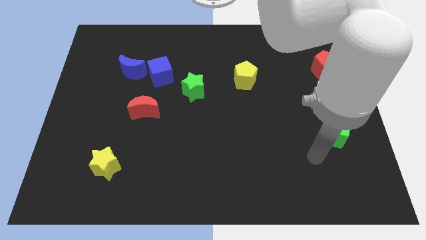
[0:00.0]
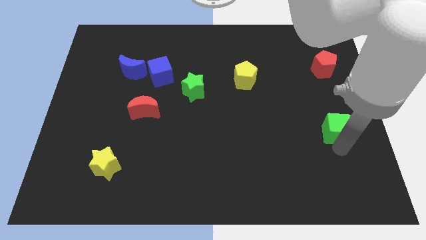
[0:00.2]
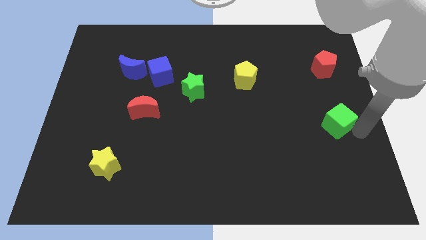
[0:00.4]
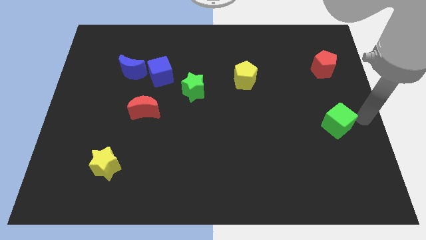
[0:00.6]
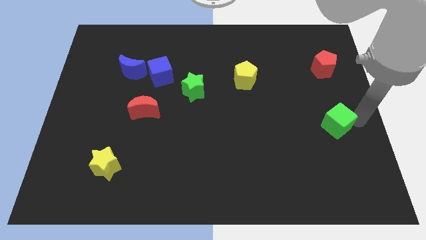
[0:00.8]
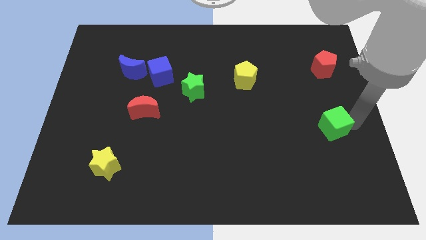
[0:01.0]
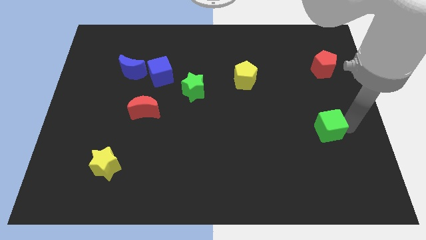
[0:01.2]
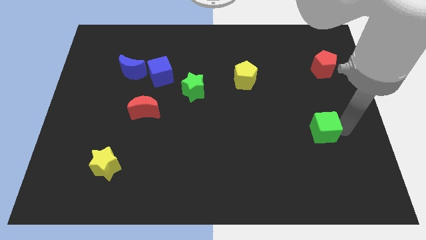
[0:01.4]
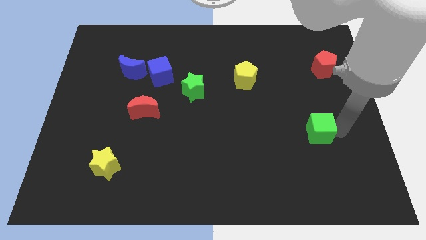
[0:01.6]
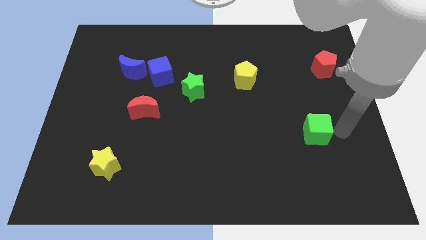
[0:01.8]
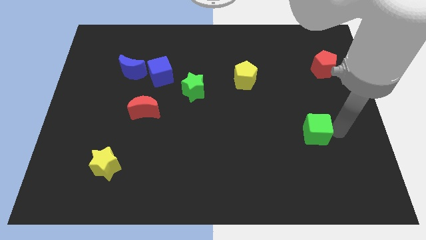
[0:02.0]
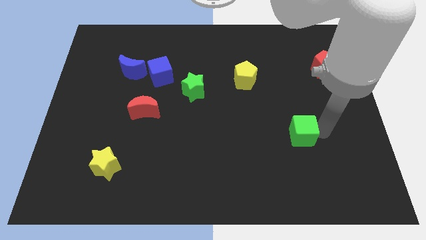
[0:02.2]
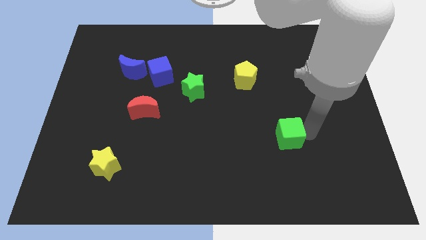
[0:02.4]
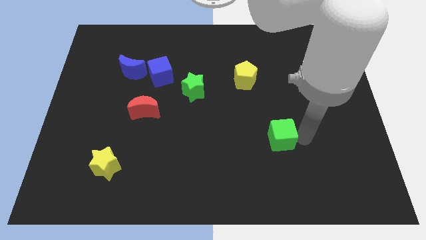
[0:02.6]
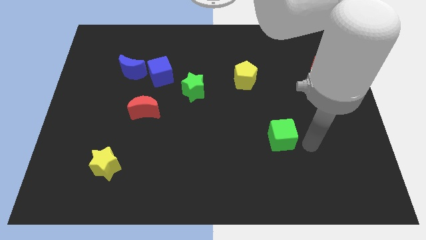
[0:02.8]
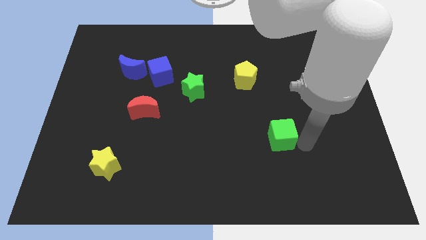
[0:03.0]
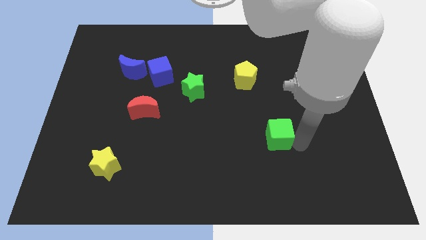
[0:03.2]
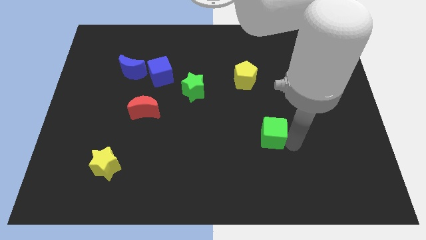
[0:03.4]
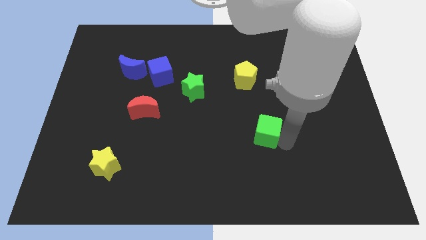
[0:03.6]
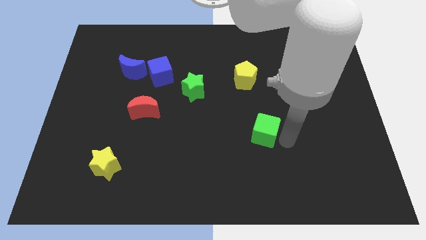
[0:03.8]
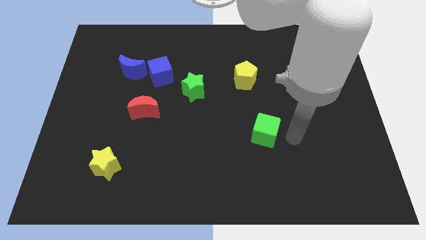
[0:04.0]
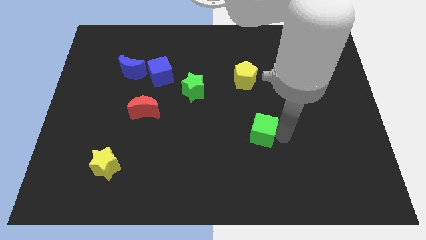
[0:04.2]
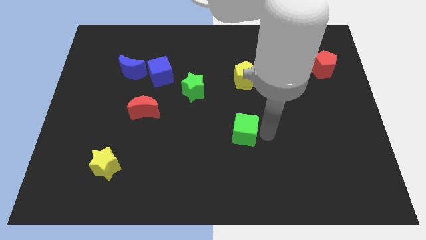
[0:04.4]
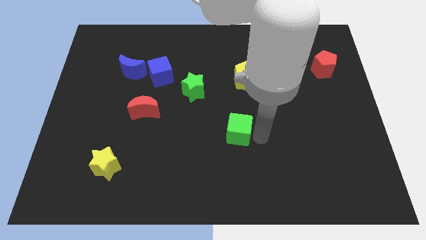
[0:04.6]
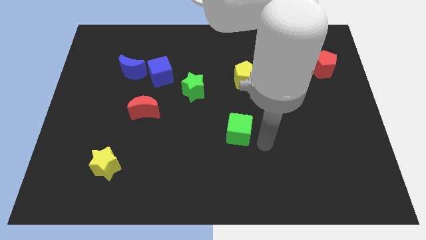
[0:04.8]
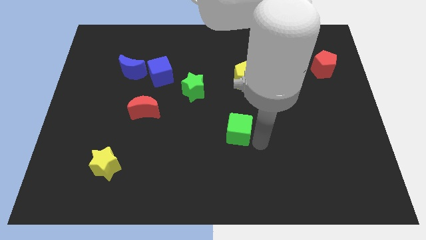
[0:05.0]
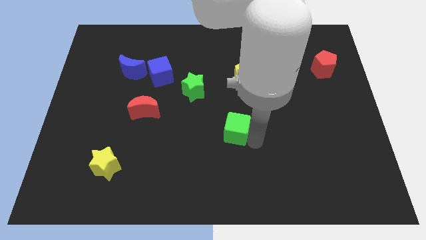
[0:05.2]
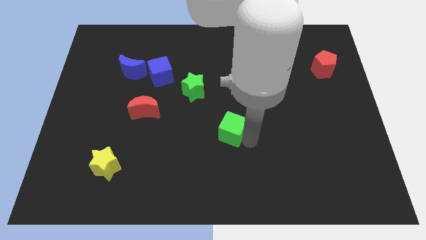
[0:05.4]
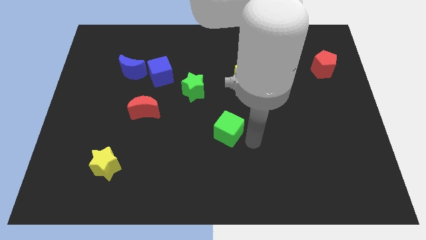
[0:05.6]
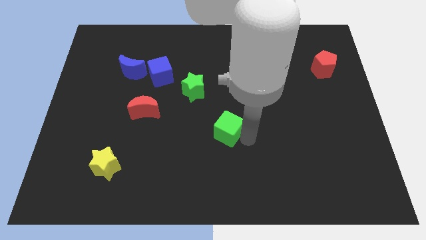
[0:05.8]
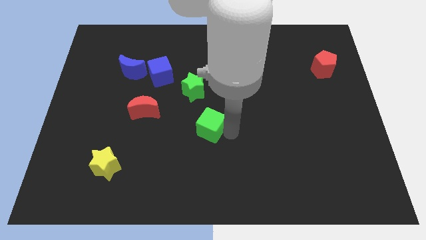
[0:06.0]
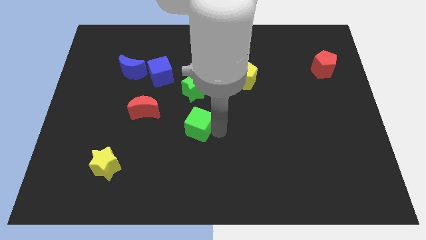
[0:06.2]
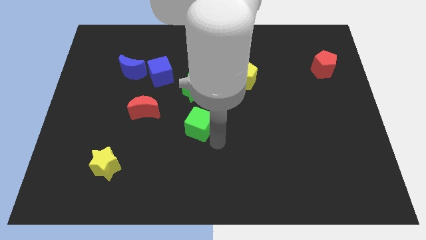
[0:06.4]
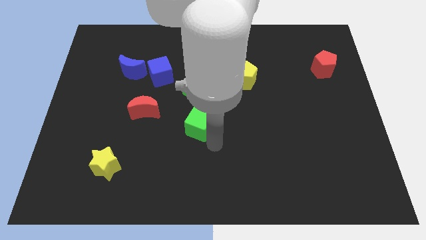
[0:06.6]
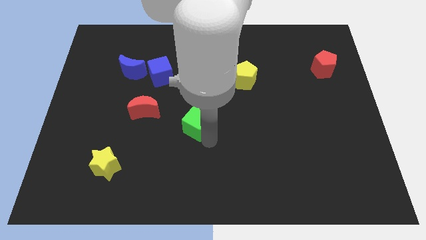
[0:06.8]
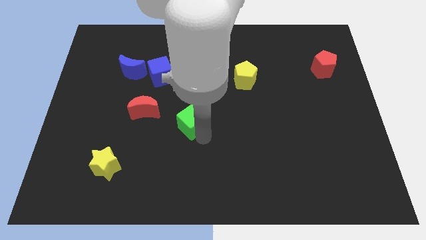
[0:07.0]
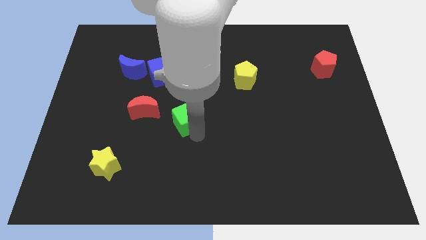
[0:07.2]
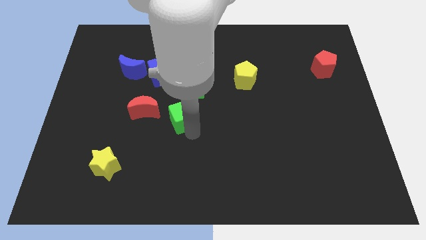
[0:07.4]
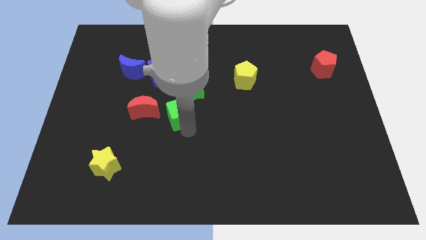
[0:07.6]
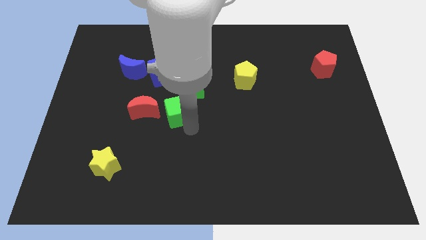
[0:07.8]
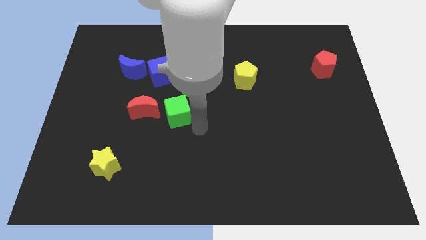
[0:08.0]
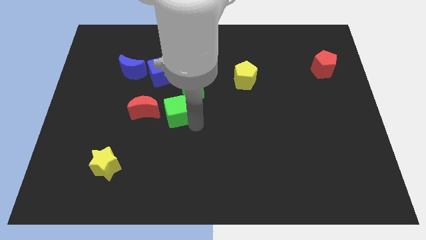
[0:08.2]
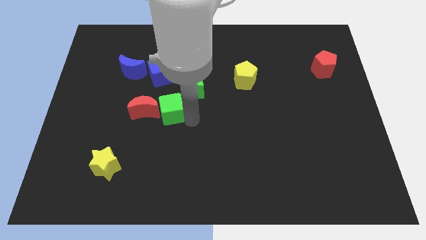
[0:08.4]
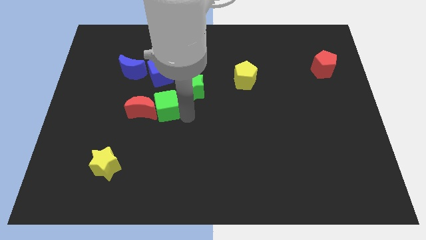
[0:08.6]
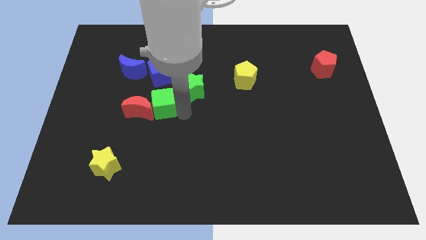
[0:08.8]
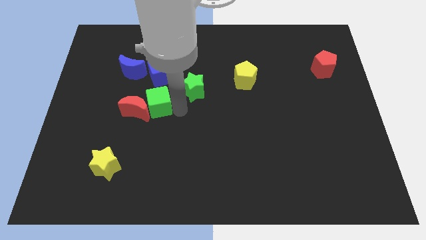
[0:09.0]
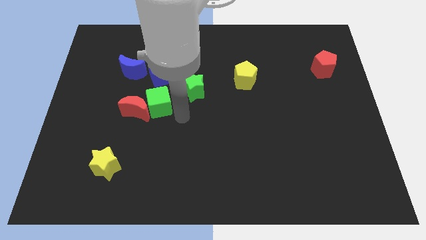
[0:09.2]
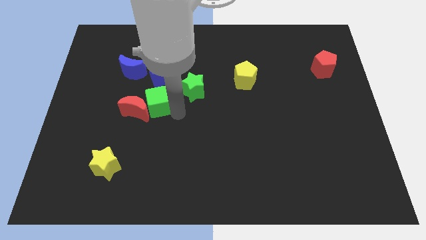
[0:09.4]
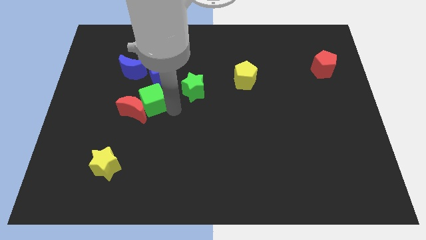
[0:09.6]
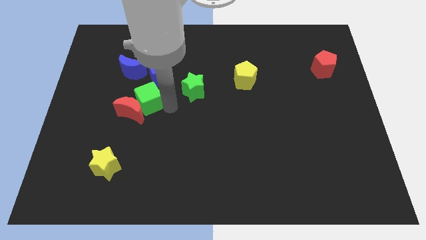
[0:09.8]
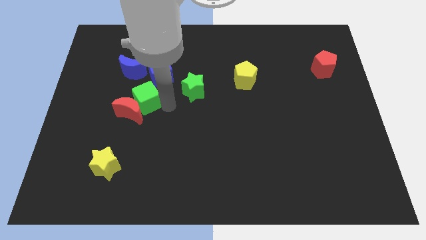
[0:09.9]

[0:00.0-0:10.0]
put the green cube below the blue moon

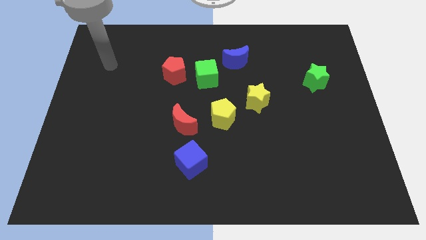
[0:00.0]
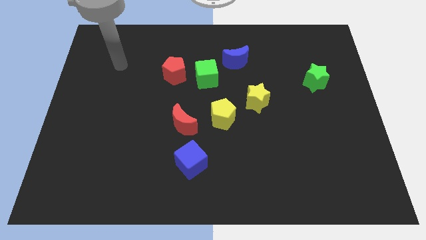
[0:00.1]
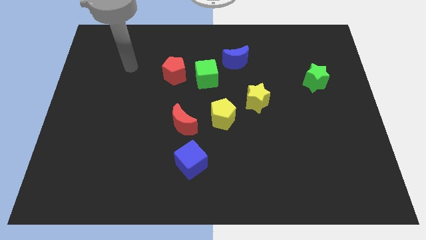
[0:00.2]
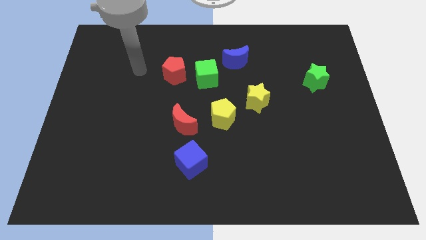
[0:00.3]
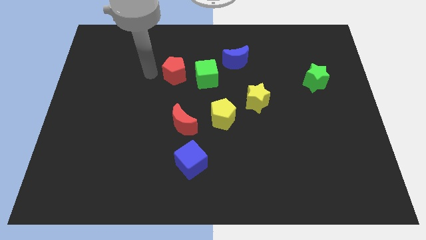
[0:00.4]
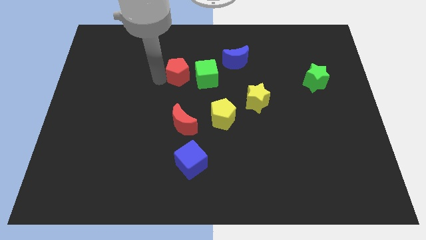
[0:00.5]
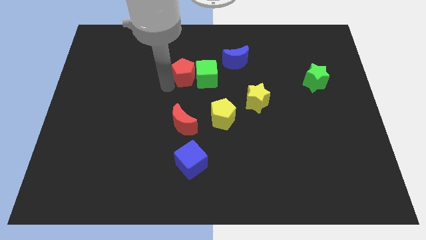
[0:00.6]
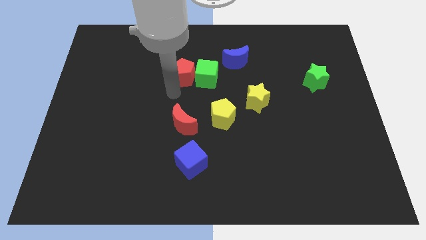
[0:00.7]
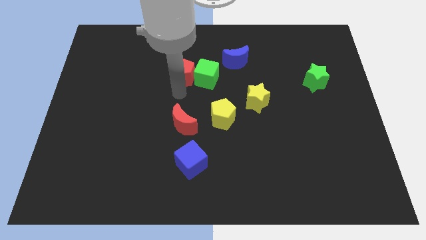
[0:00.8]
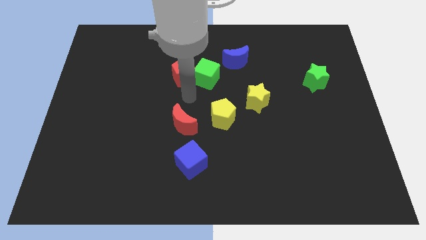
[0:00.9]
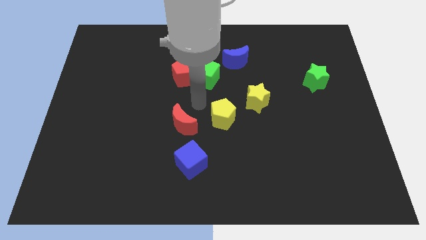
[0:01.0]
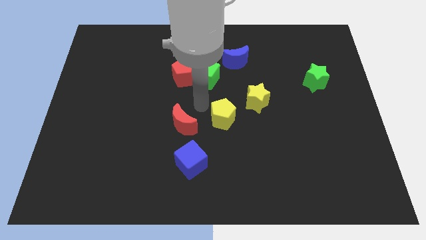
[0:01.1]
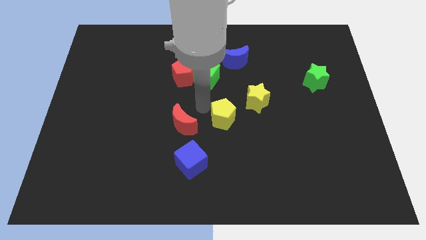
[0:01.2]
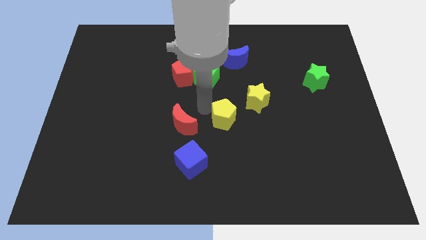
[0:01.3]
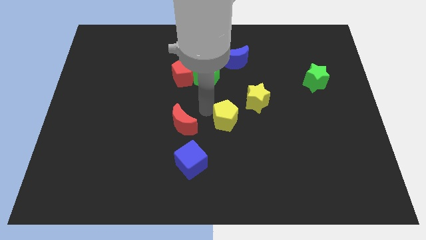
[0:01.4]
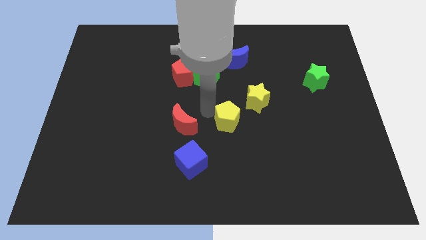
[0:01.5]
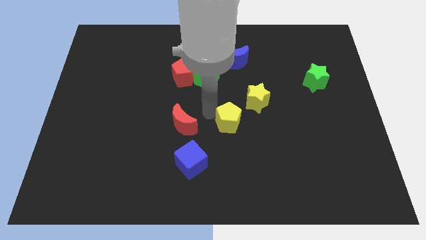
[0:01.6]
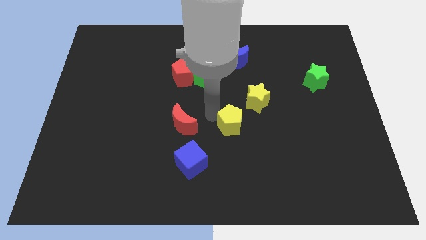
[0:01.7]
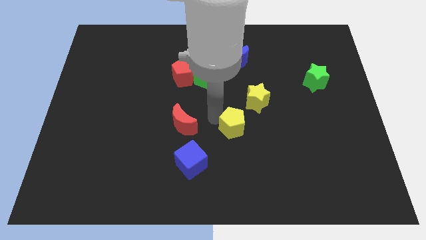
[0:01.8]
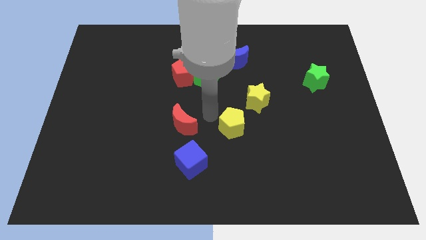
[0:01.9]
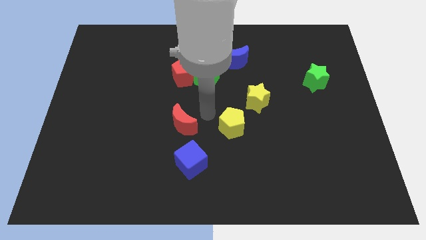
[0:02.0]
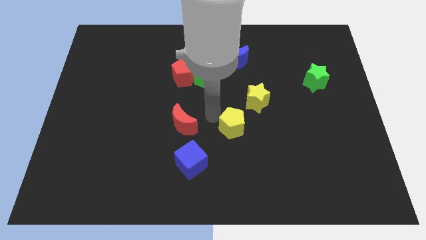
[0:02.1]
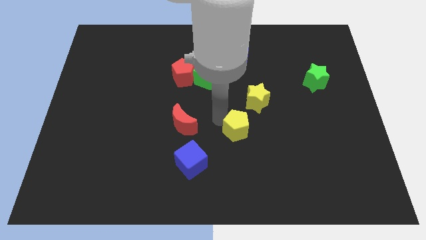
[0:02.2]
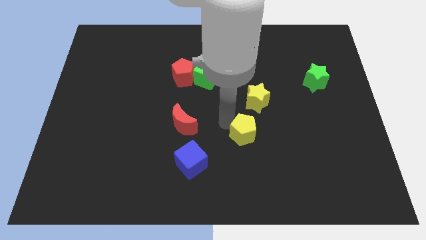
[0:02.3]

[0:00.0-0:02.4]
push the yellow pentagon below the yellow star

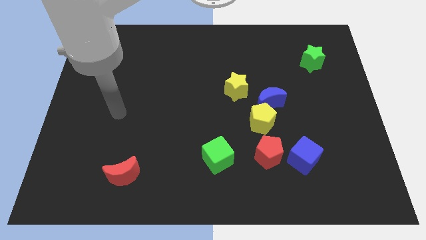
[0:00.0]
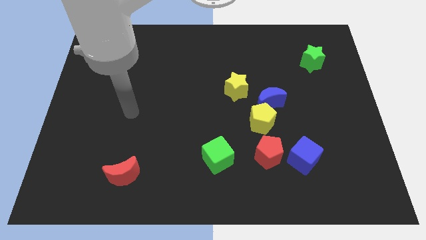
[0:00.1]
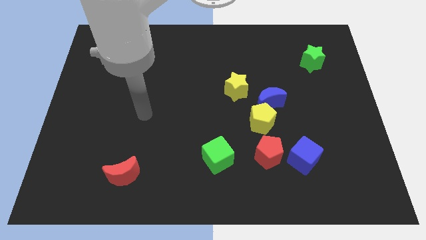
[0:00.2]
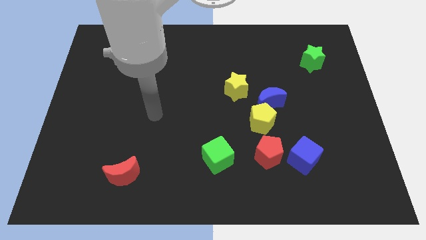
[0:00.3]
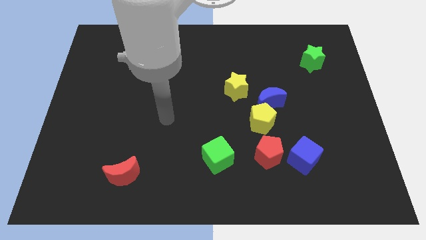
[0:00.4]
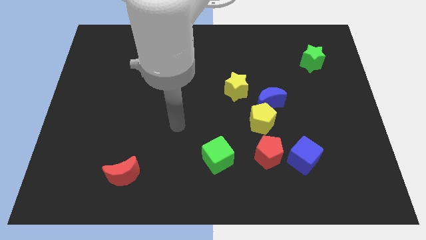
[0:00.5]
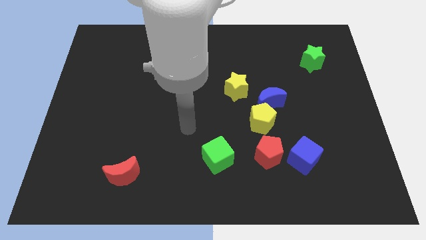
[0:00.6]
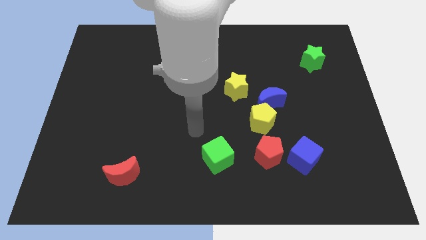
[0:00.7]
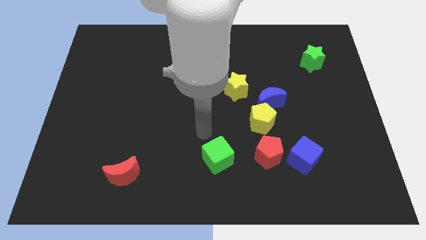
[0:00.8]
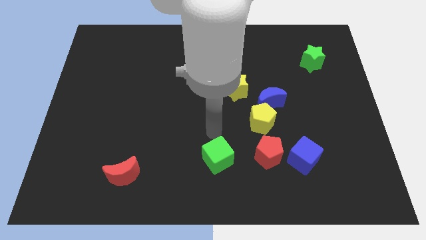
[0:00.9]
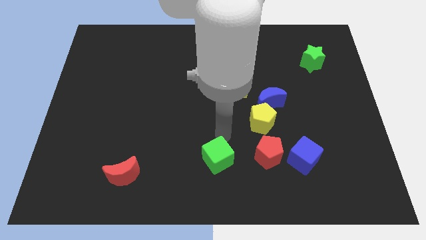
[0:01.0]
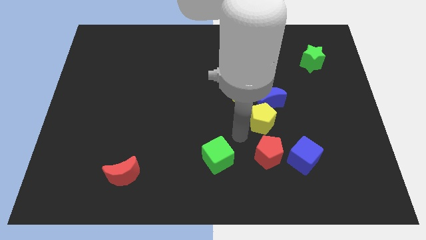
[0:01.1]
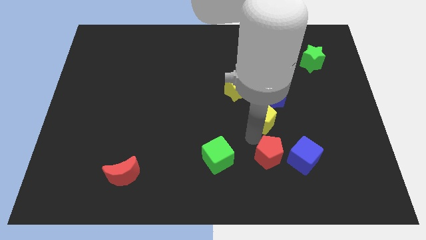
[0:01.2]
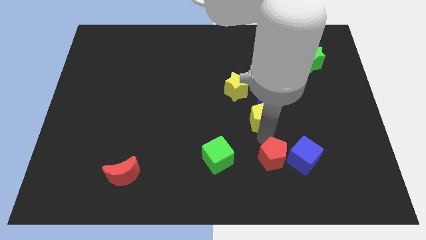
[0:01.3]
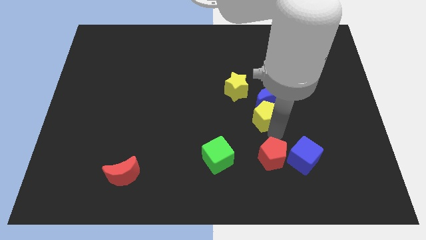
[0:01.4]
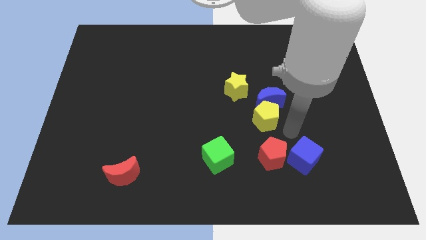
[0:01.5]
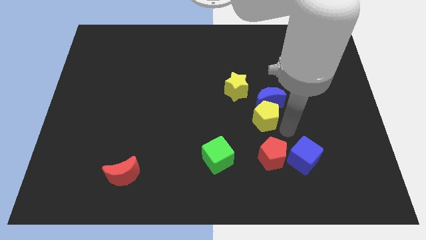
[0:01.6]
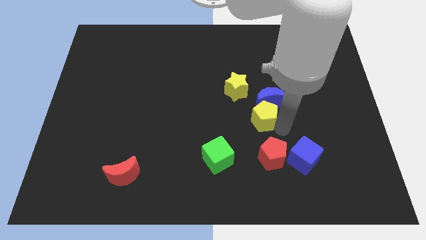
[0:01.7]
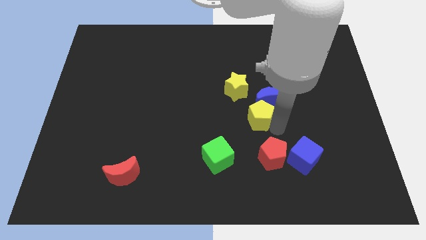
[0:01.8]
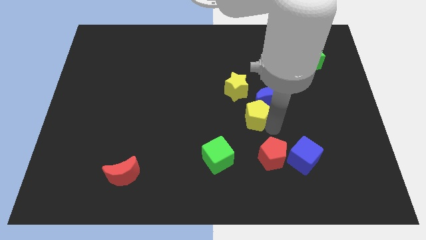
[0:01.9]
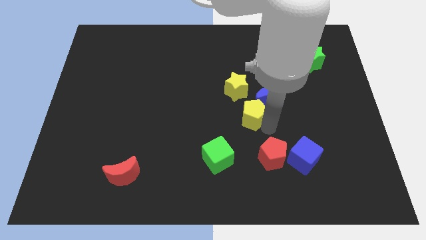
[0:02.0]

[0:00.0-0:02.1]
move the yellow pentagon left of the blue moon
